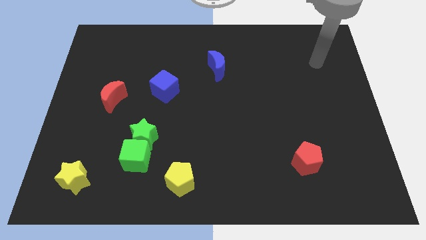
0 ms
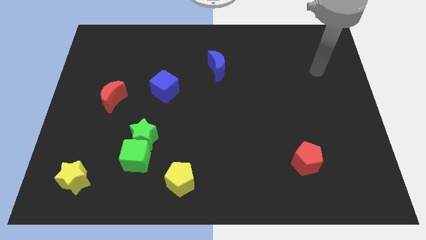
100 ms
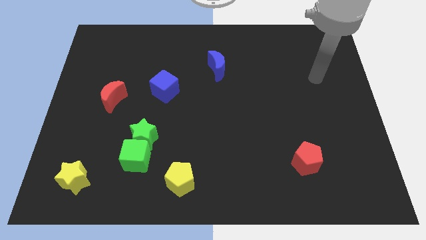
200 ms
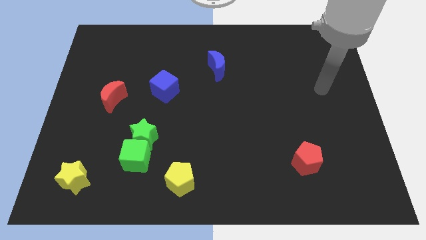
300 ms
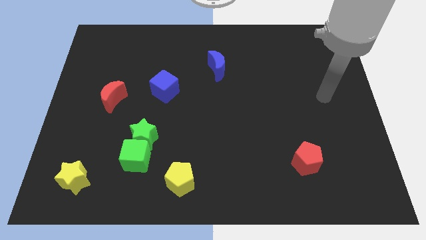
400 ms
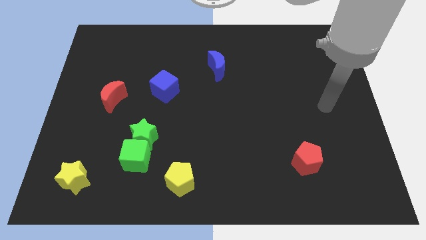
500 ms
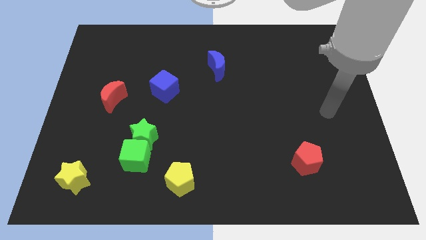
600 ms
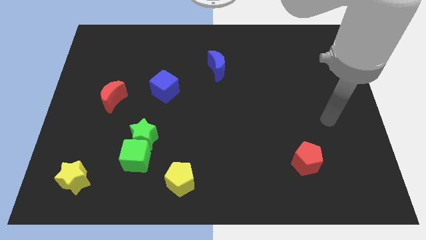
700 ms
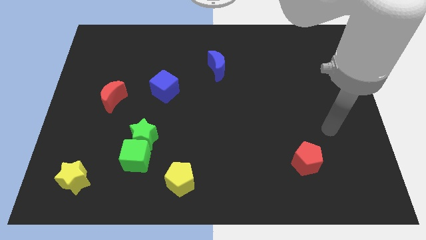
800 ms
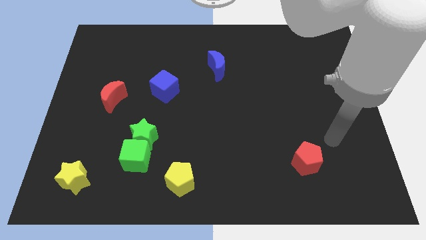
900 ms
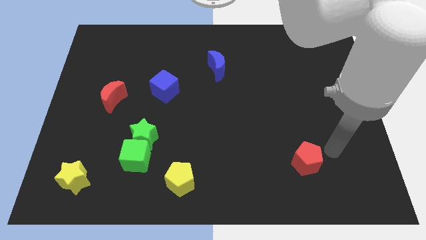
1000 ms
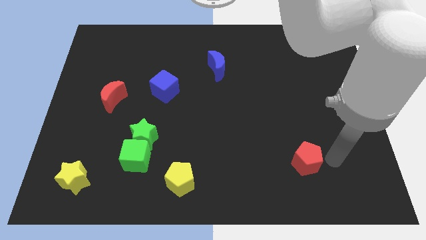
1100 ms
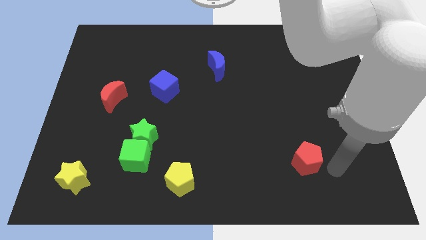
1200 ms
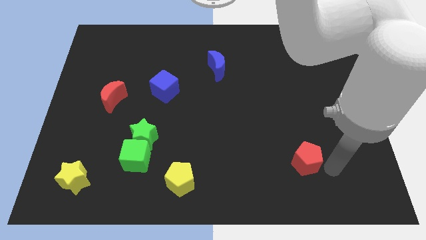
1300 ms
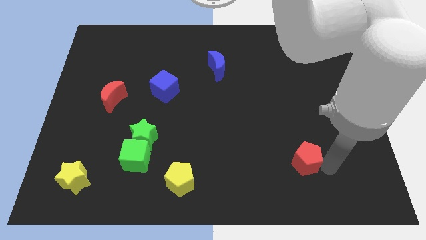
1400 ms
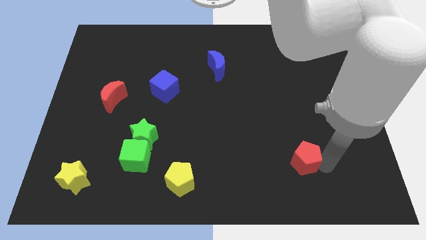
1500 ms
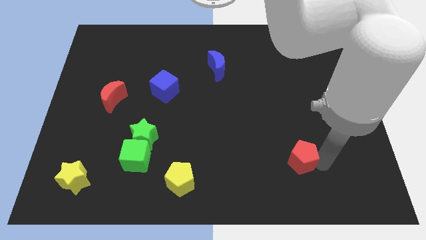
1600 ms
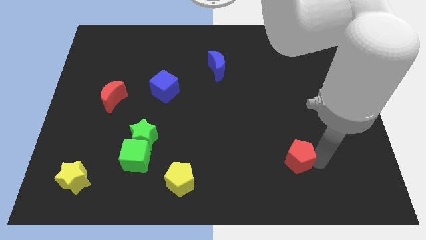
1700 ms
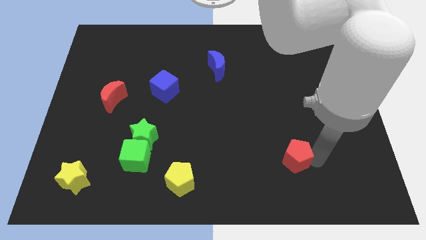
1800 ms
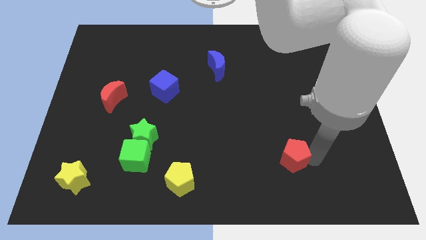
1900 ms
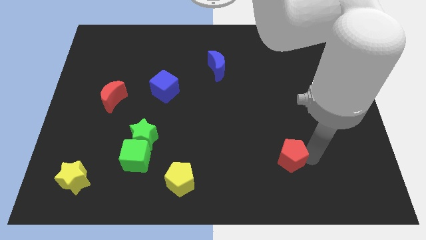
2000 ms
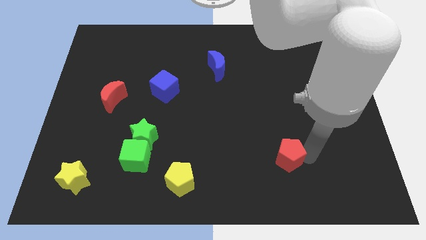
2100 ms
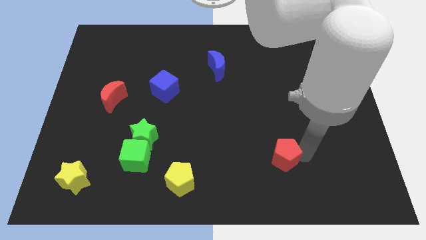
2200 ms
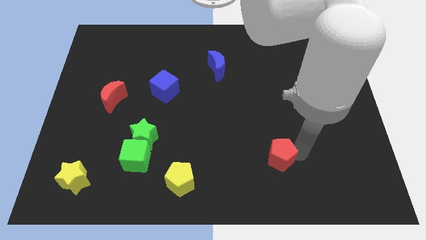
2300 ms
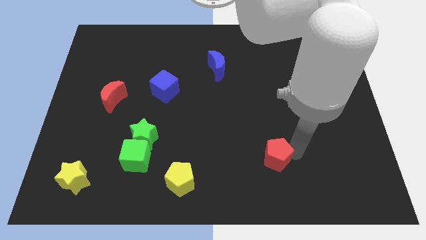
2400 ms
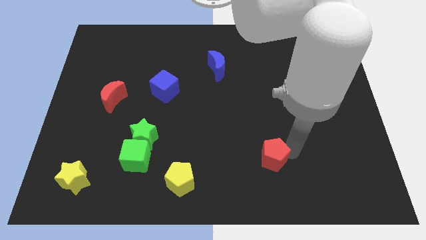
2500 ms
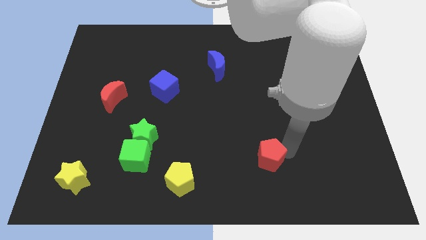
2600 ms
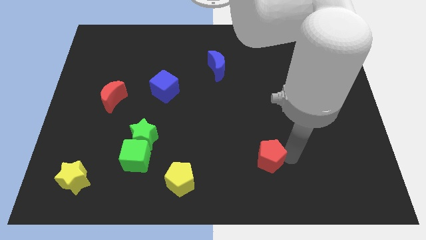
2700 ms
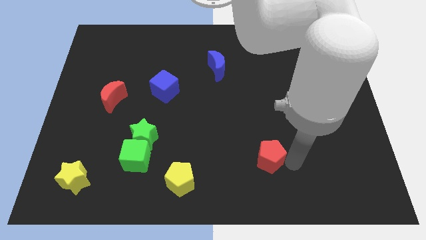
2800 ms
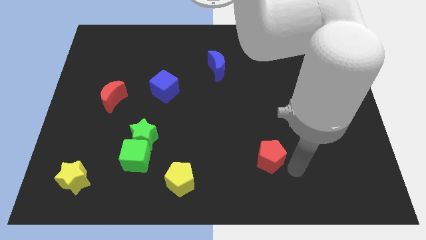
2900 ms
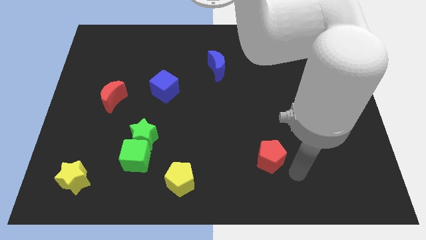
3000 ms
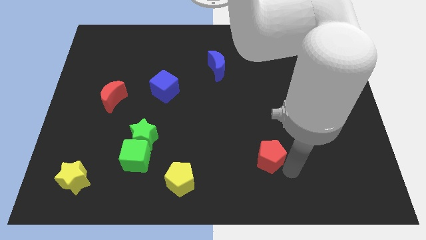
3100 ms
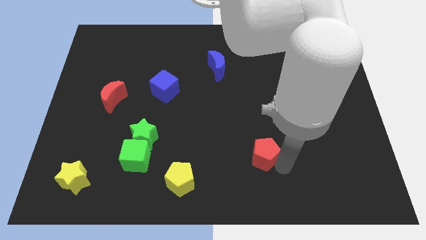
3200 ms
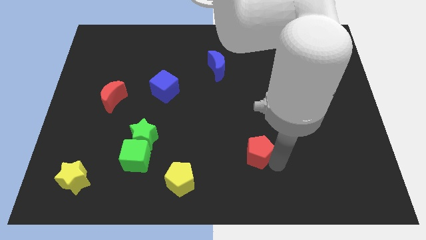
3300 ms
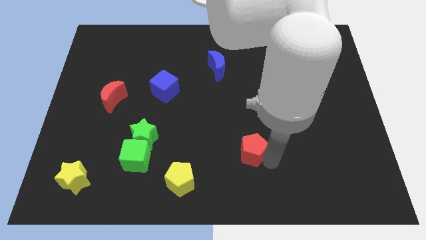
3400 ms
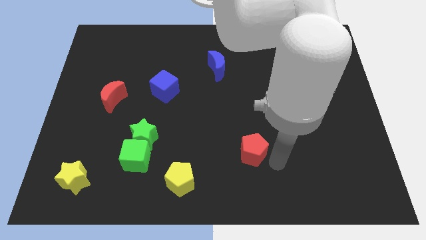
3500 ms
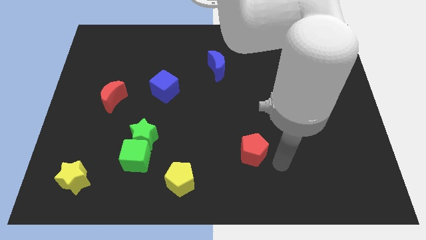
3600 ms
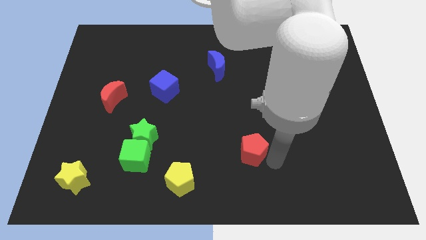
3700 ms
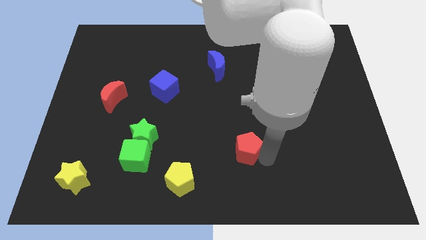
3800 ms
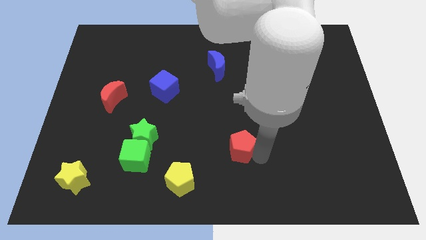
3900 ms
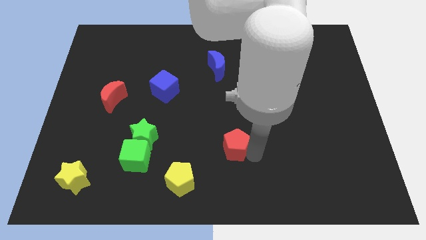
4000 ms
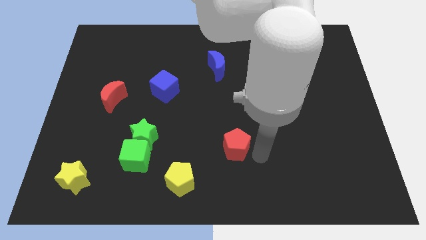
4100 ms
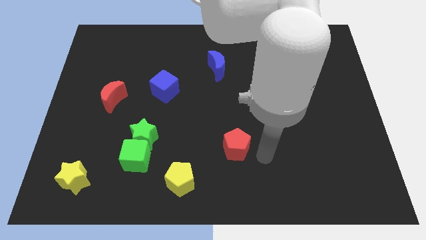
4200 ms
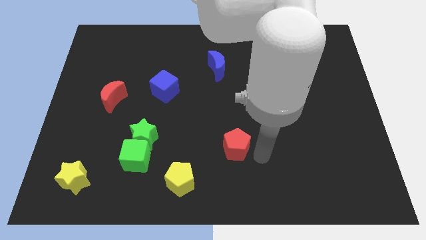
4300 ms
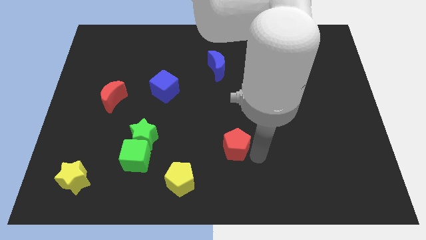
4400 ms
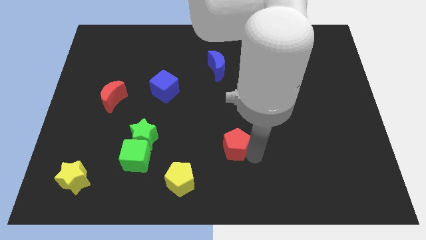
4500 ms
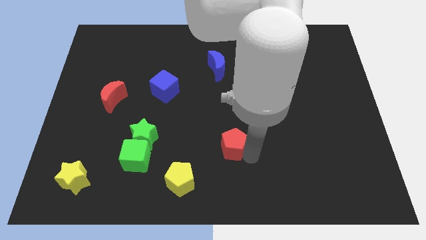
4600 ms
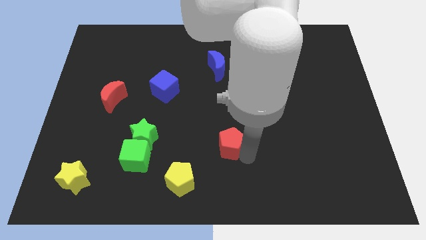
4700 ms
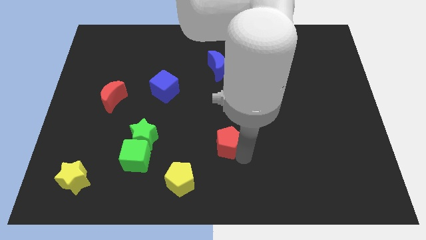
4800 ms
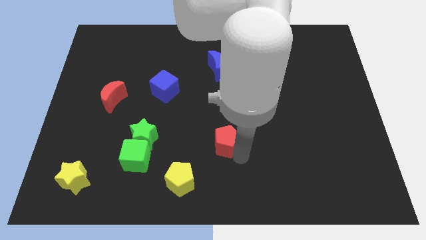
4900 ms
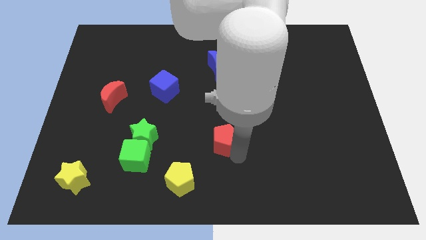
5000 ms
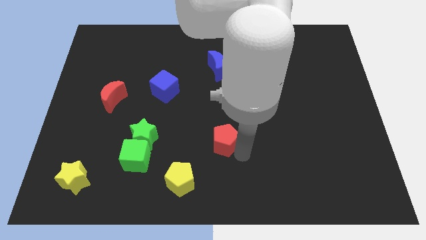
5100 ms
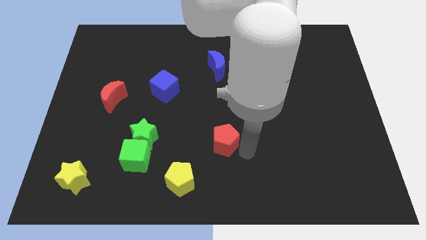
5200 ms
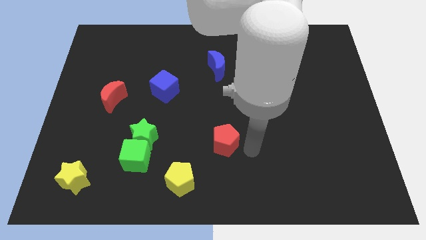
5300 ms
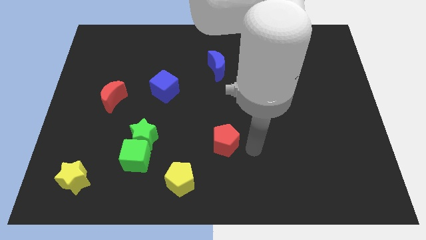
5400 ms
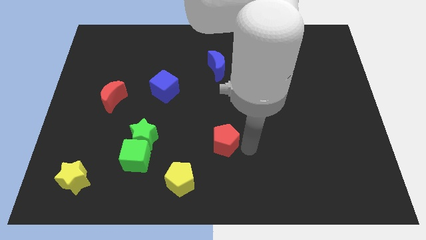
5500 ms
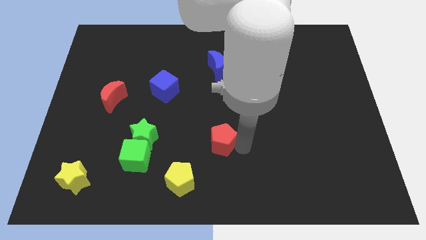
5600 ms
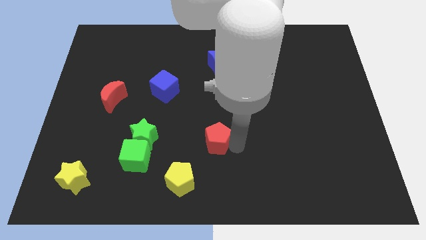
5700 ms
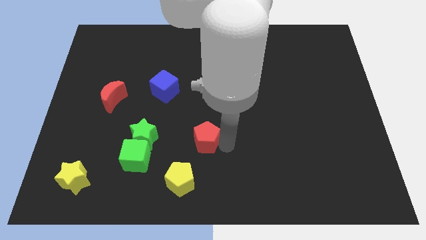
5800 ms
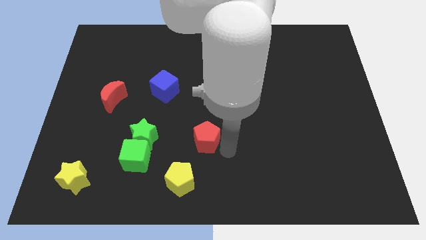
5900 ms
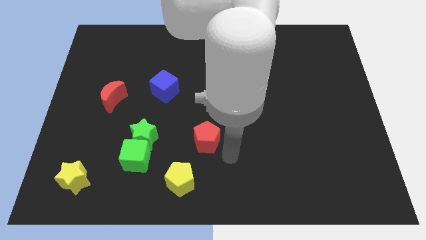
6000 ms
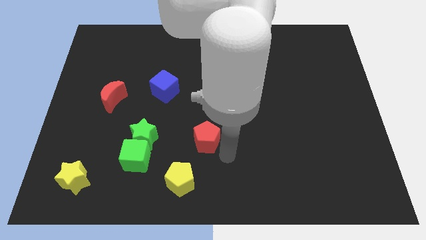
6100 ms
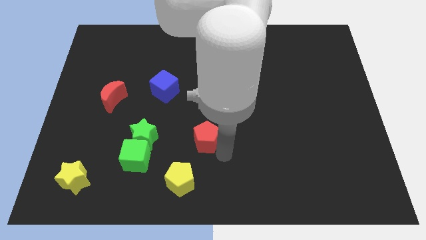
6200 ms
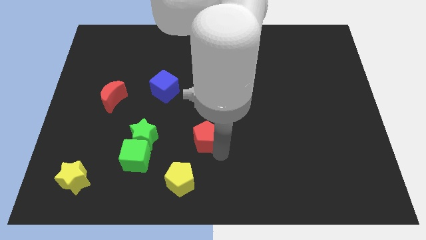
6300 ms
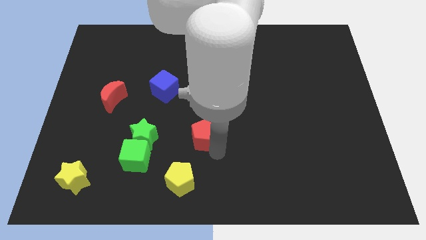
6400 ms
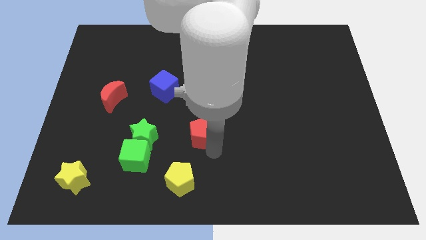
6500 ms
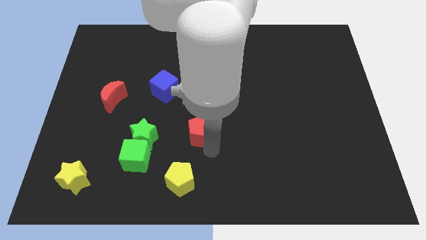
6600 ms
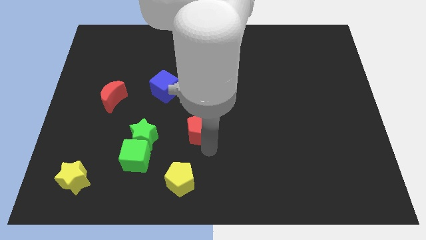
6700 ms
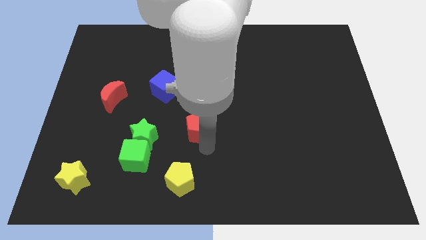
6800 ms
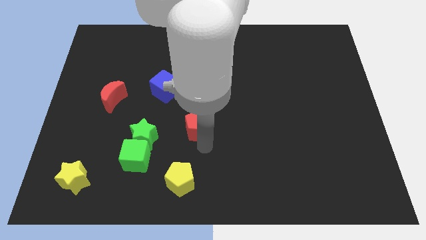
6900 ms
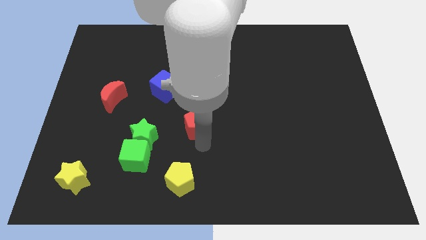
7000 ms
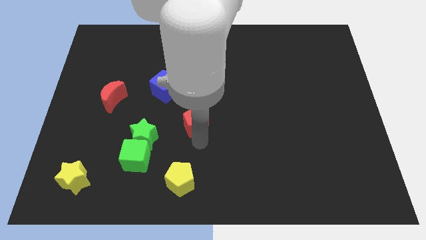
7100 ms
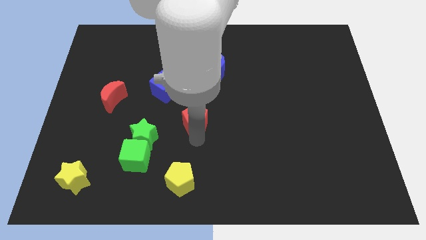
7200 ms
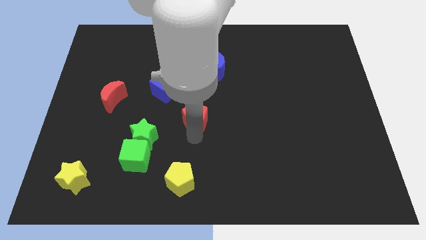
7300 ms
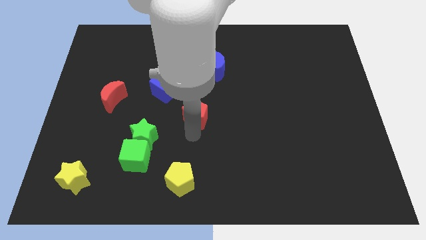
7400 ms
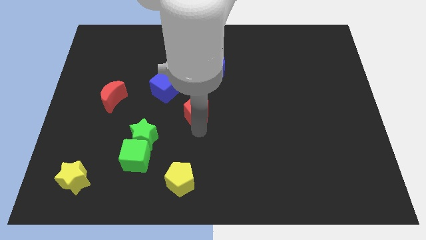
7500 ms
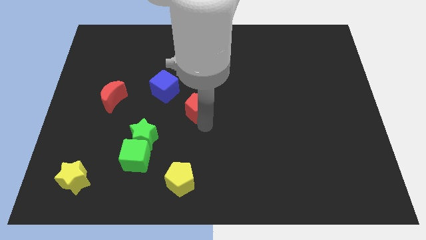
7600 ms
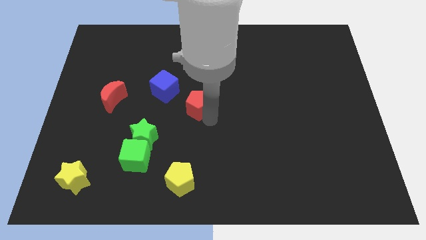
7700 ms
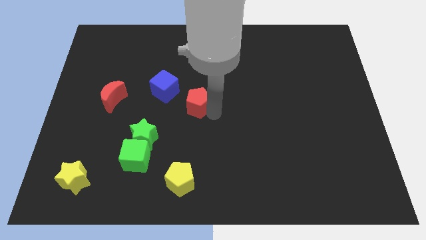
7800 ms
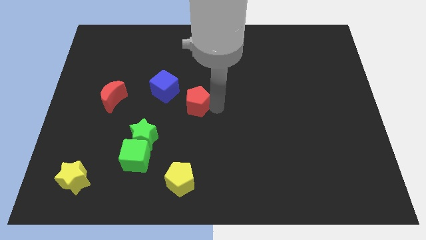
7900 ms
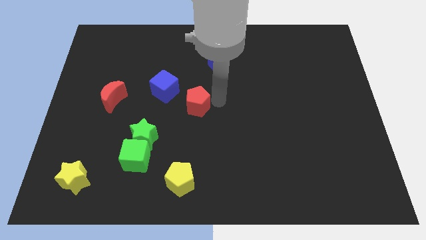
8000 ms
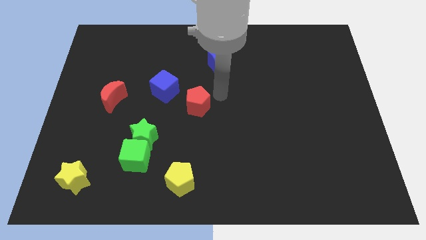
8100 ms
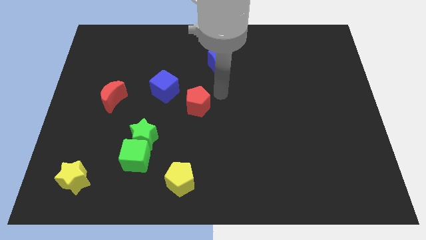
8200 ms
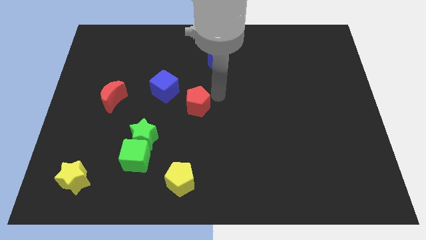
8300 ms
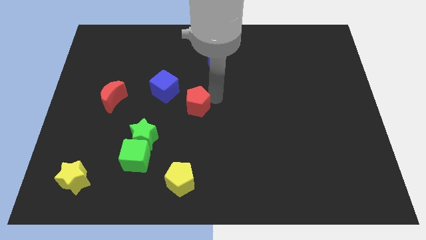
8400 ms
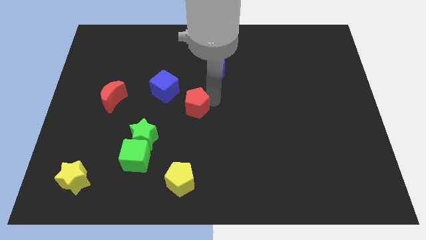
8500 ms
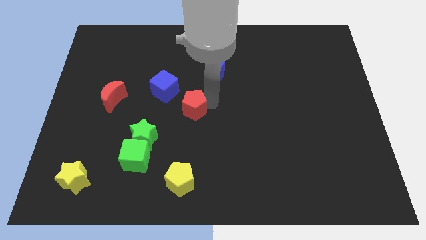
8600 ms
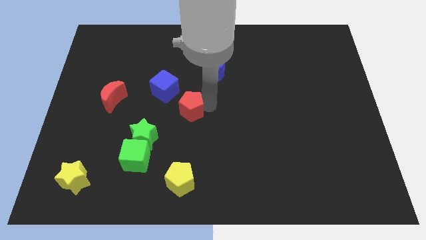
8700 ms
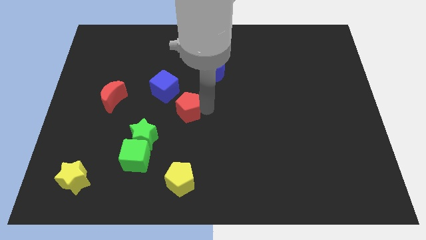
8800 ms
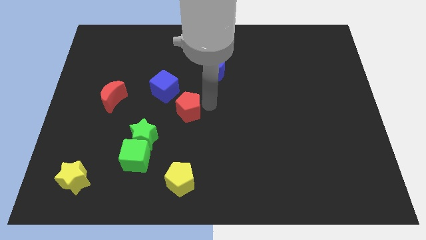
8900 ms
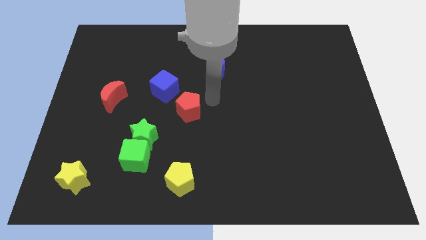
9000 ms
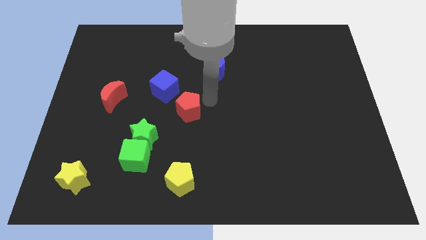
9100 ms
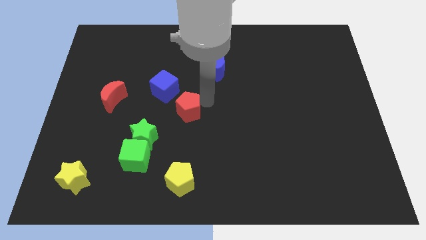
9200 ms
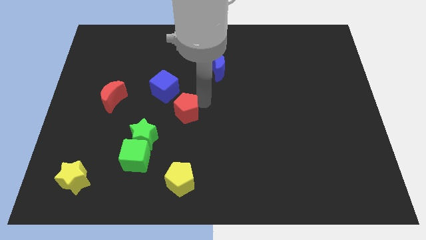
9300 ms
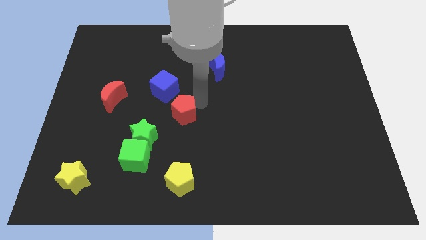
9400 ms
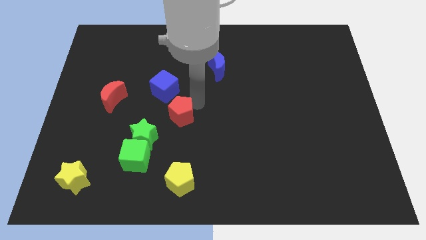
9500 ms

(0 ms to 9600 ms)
move the red pentagon to the bottom of the blue cube
